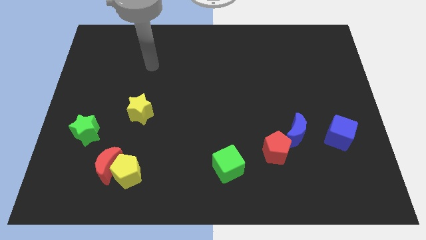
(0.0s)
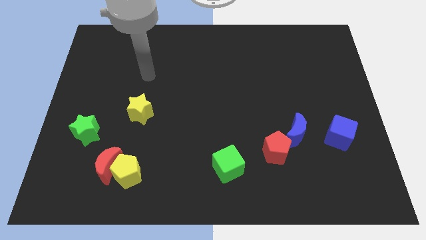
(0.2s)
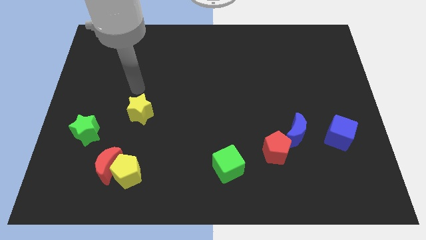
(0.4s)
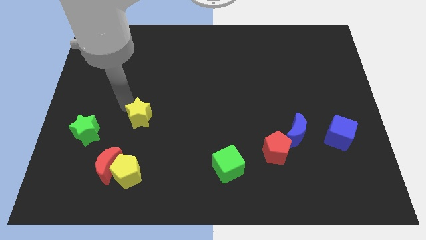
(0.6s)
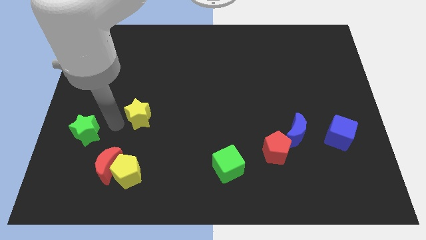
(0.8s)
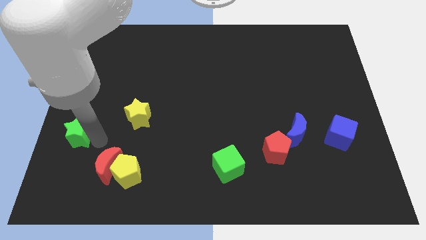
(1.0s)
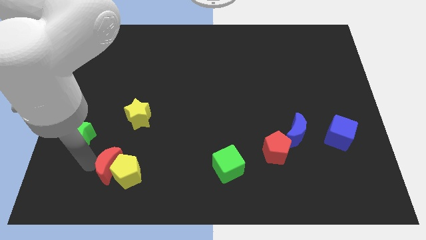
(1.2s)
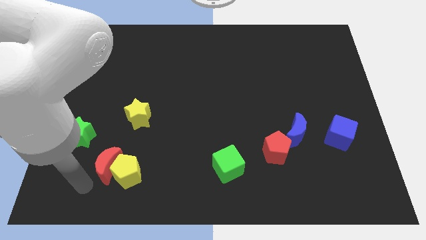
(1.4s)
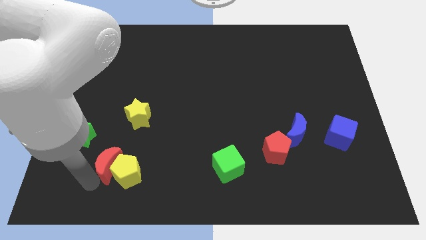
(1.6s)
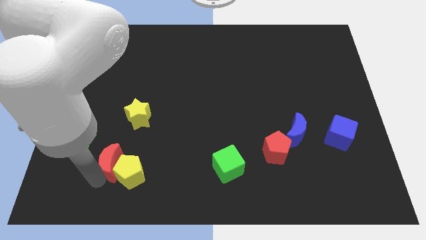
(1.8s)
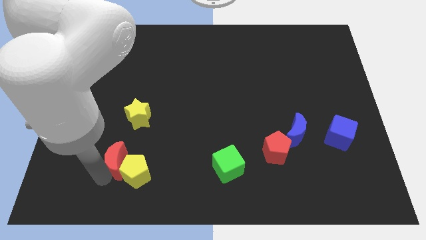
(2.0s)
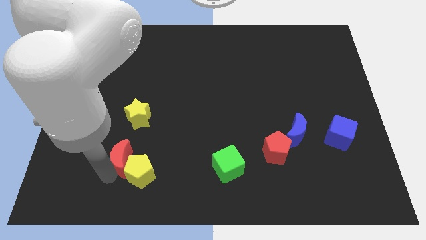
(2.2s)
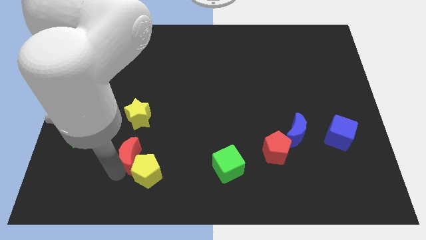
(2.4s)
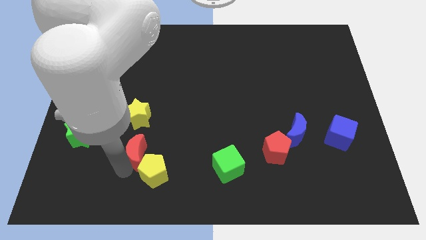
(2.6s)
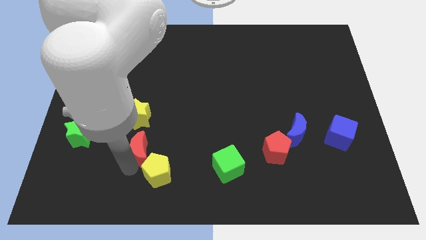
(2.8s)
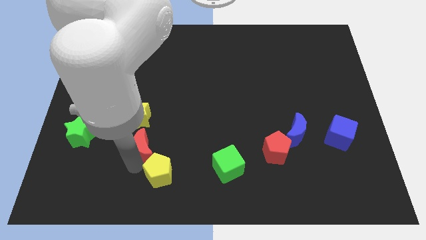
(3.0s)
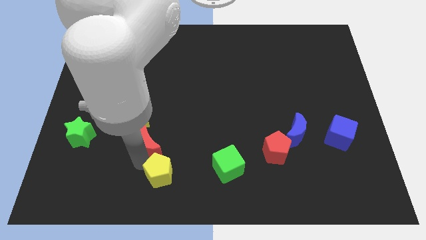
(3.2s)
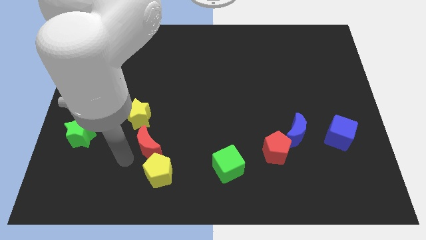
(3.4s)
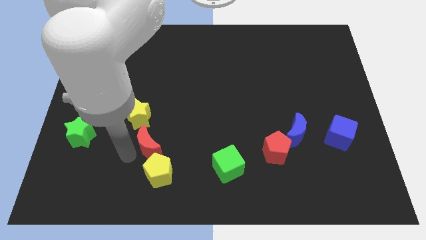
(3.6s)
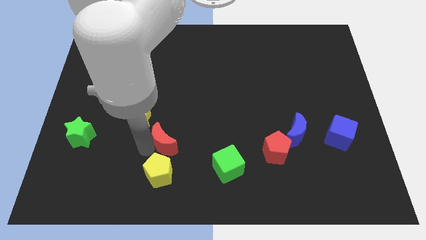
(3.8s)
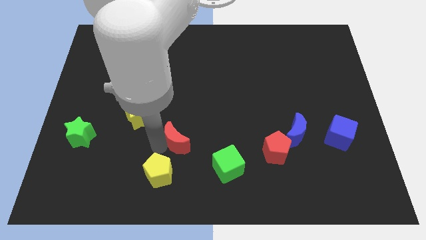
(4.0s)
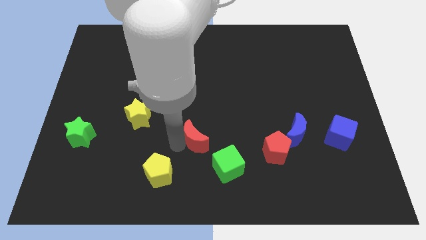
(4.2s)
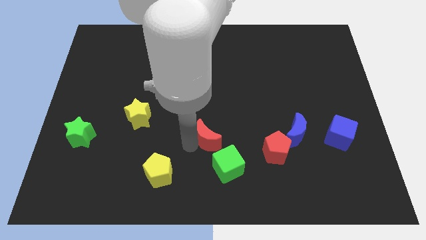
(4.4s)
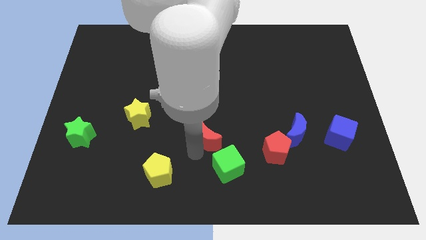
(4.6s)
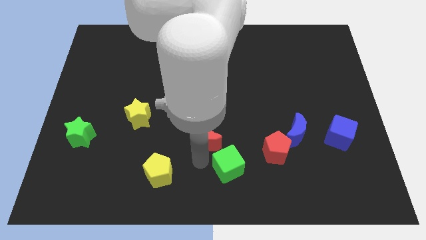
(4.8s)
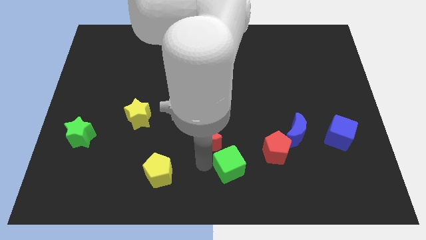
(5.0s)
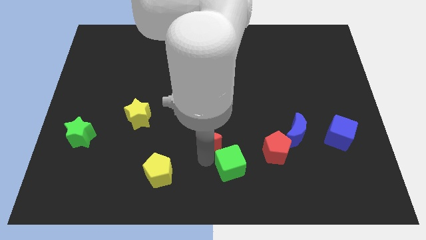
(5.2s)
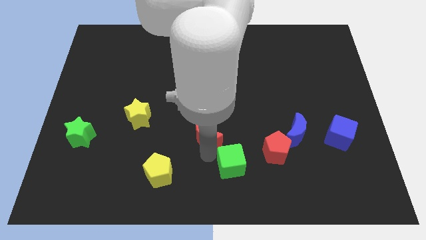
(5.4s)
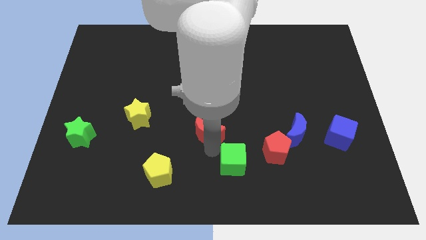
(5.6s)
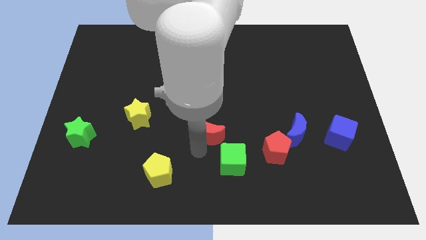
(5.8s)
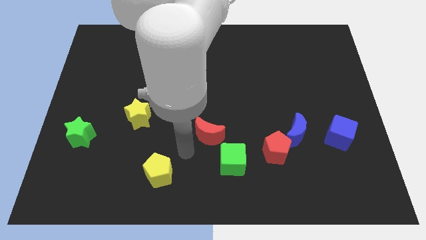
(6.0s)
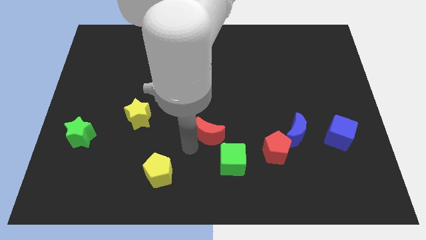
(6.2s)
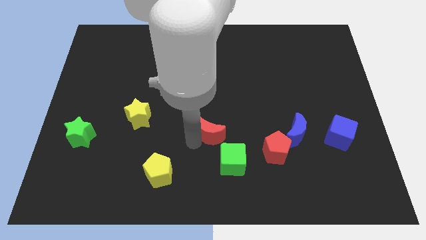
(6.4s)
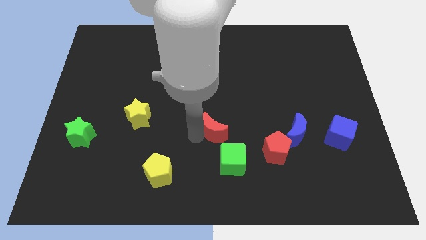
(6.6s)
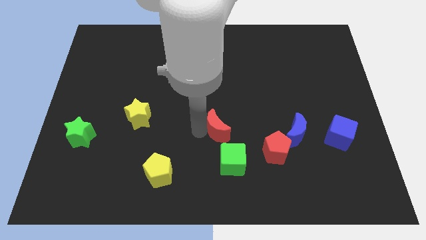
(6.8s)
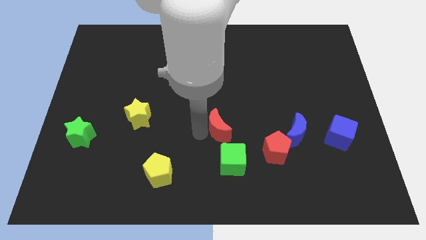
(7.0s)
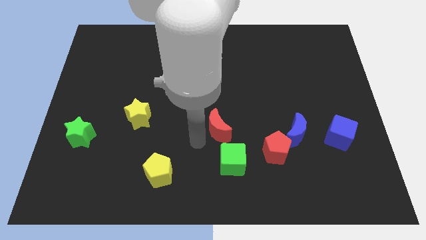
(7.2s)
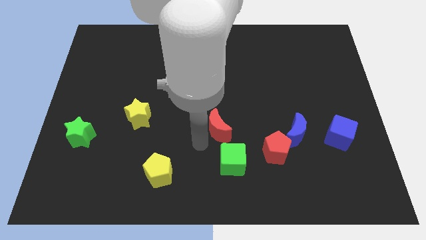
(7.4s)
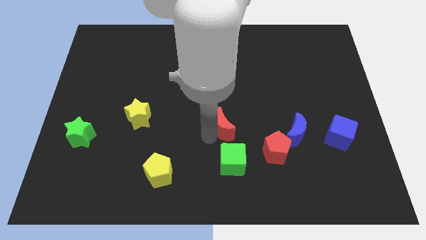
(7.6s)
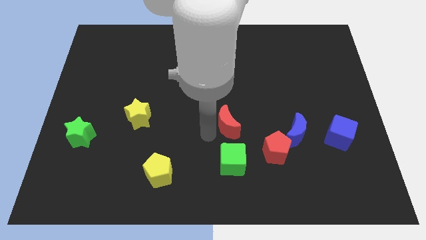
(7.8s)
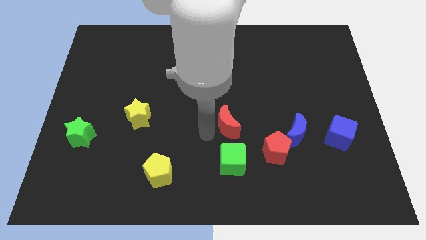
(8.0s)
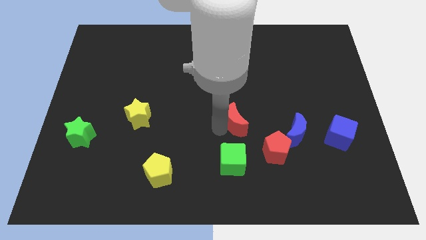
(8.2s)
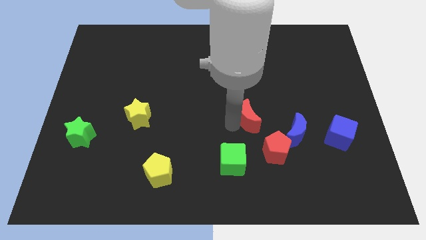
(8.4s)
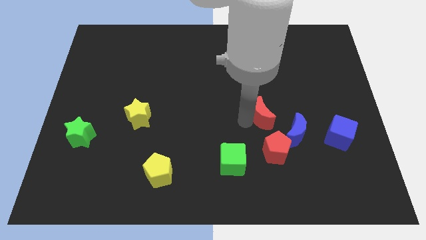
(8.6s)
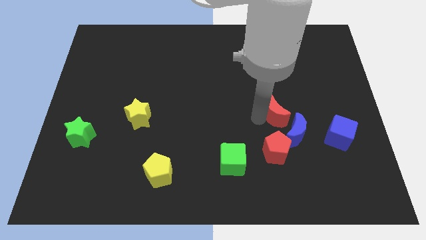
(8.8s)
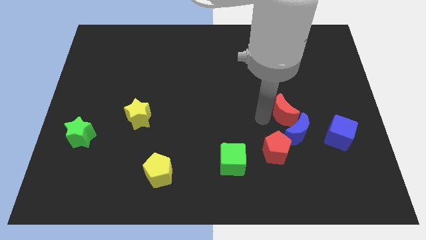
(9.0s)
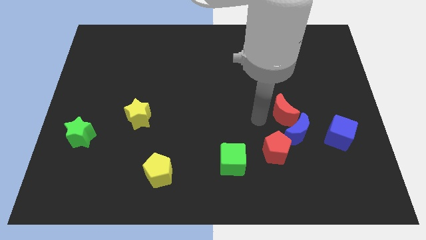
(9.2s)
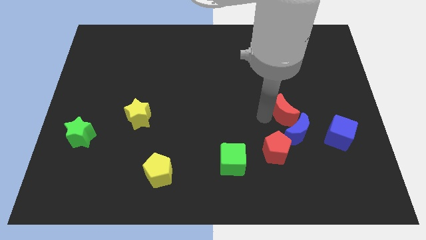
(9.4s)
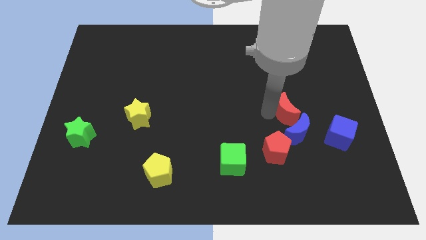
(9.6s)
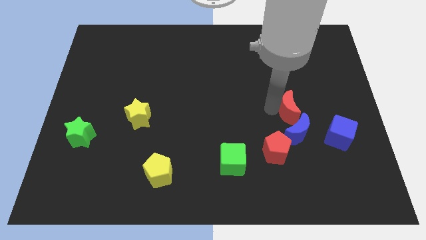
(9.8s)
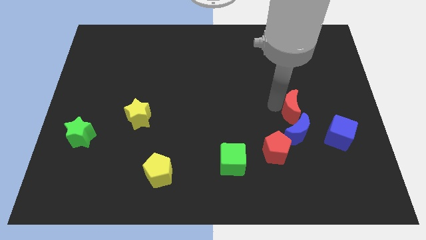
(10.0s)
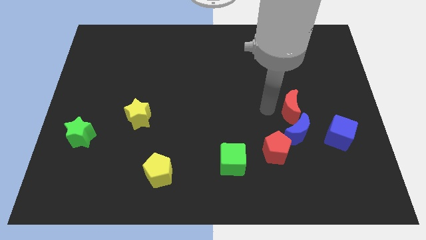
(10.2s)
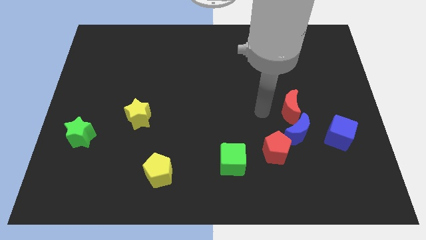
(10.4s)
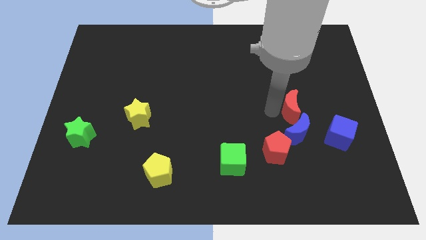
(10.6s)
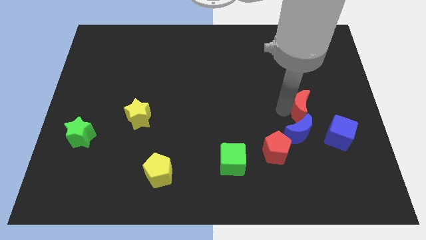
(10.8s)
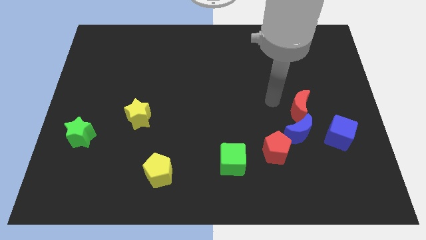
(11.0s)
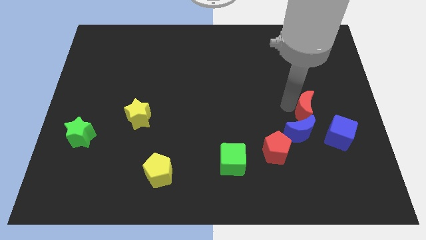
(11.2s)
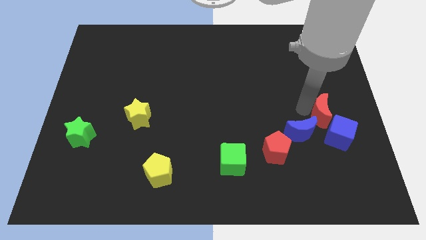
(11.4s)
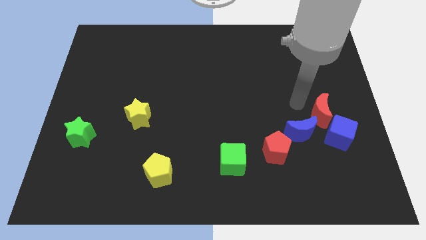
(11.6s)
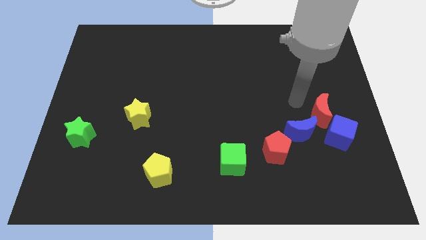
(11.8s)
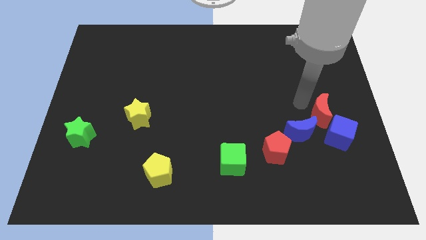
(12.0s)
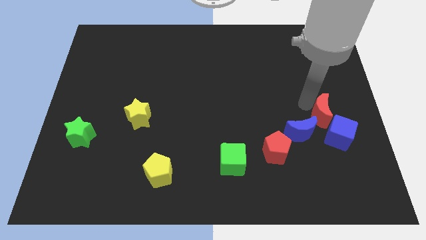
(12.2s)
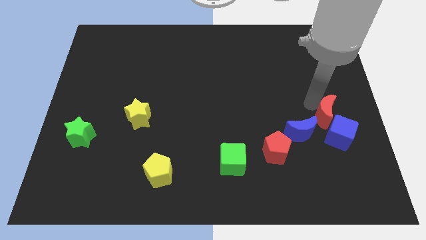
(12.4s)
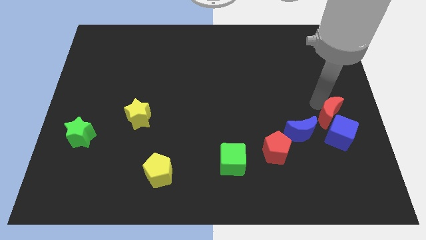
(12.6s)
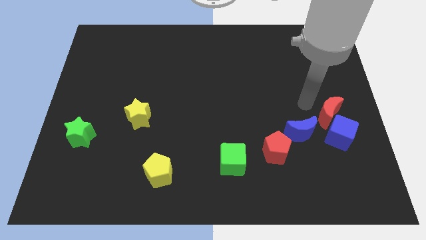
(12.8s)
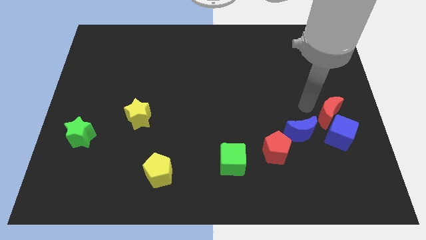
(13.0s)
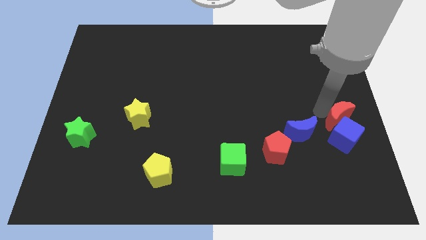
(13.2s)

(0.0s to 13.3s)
move the red moon to the right side of the blue moon

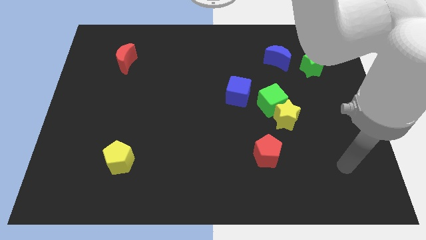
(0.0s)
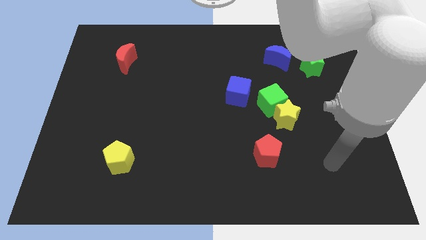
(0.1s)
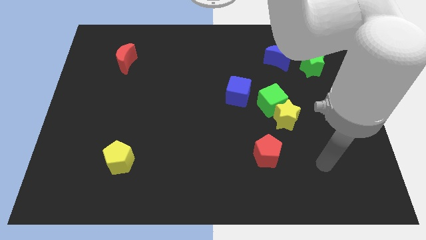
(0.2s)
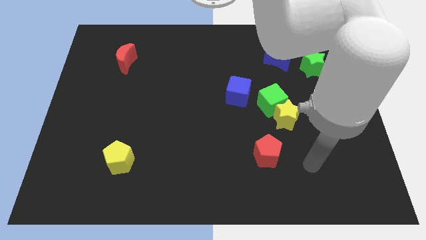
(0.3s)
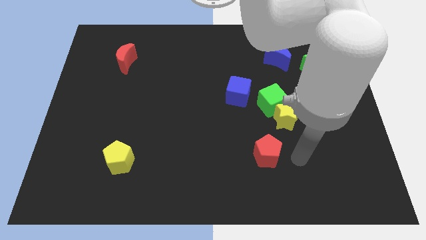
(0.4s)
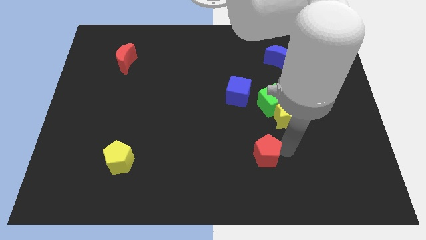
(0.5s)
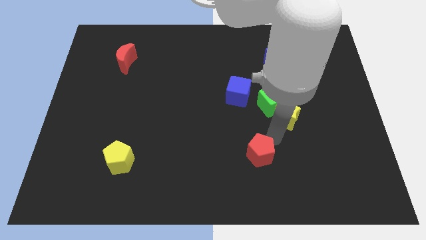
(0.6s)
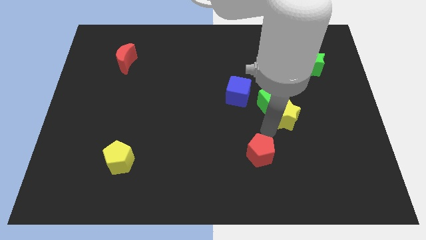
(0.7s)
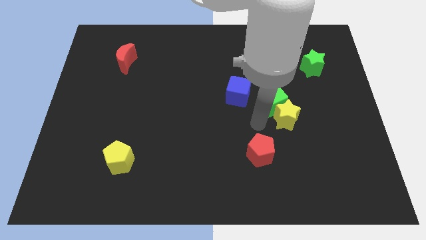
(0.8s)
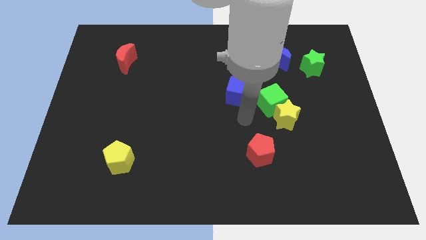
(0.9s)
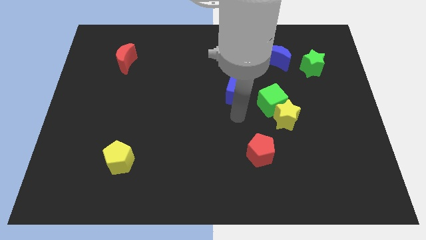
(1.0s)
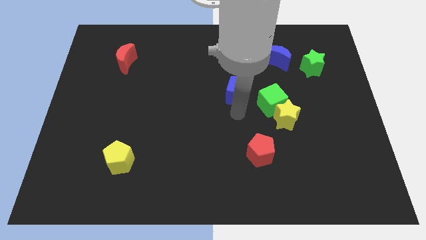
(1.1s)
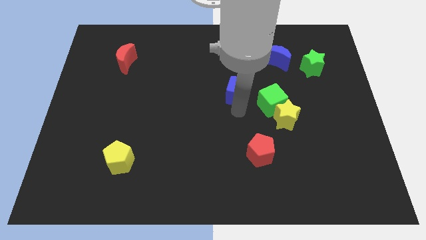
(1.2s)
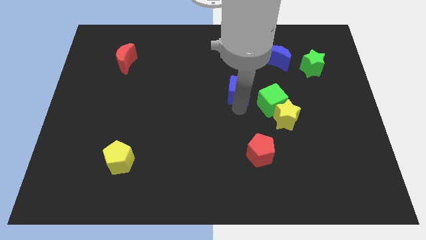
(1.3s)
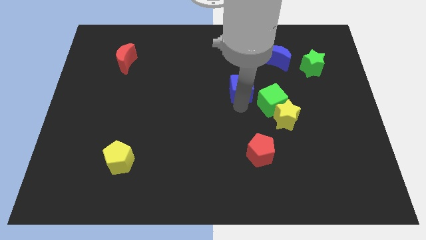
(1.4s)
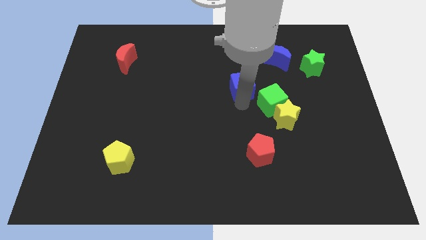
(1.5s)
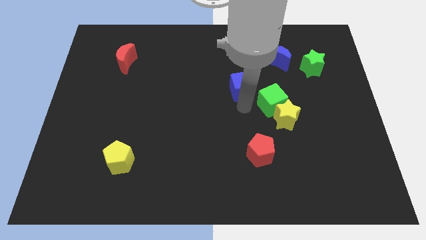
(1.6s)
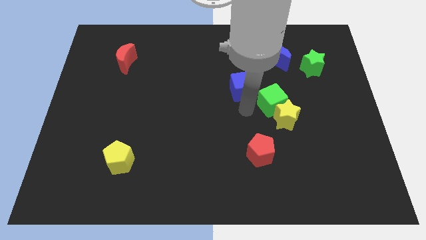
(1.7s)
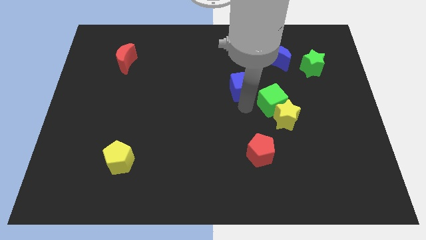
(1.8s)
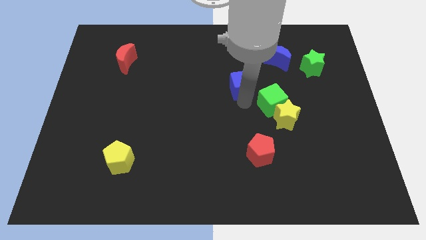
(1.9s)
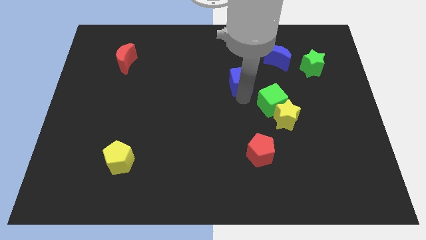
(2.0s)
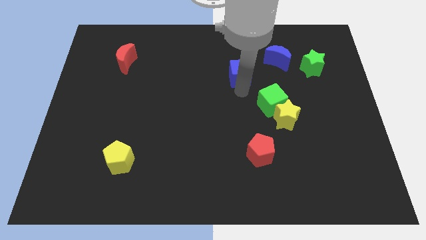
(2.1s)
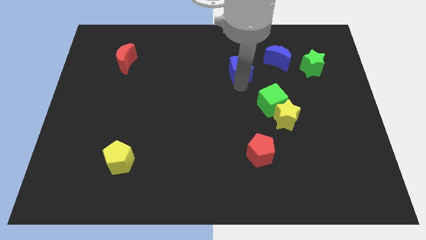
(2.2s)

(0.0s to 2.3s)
put the blue cube just left of the blue moon
